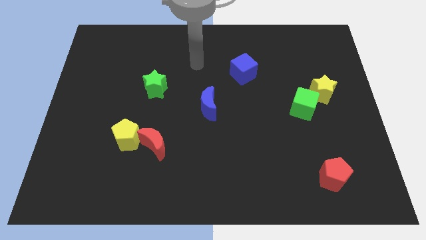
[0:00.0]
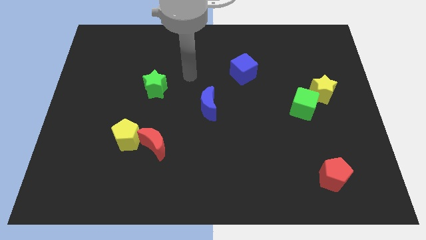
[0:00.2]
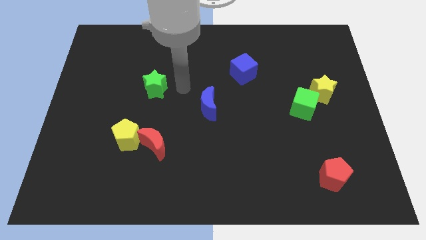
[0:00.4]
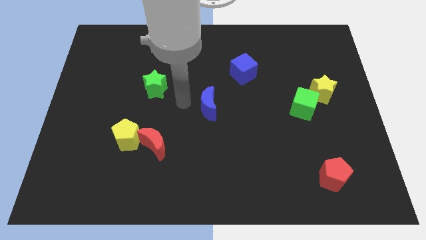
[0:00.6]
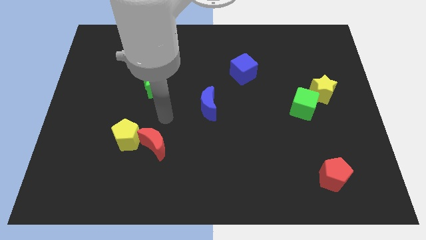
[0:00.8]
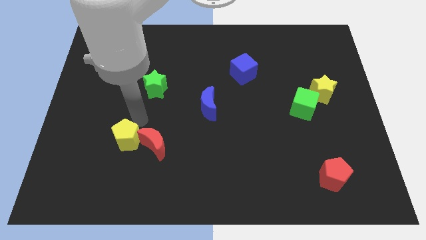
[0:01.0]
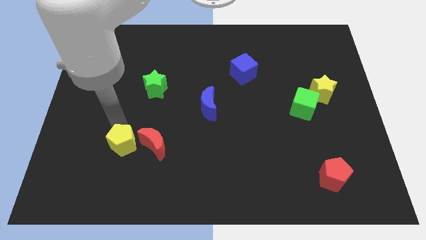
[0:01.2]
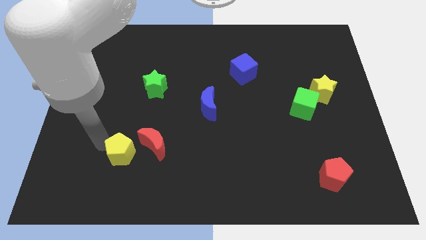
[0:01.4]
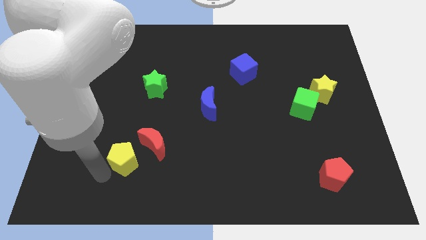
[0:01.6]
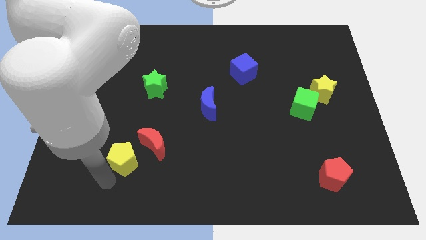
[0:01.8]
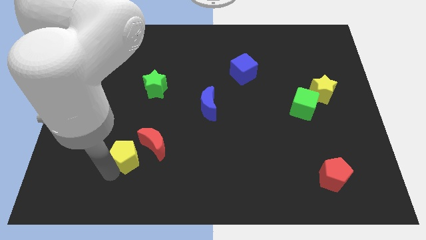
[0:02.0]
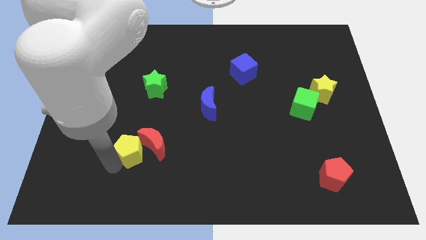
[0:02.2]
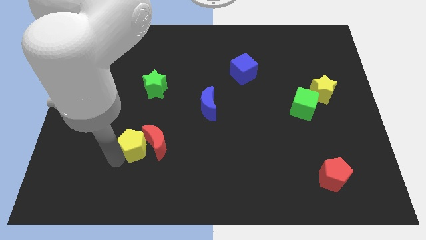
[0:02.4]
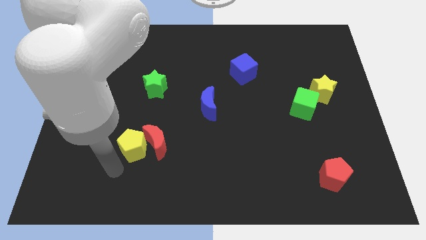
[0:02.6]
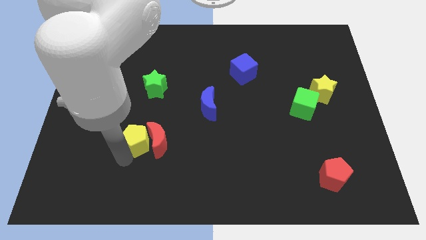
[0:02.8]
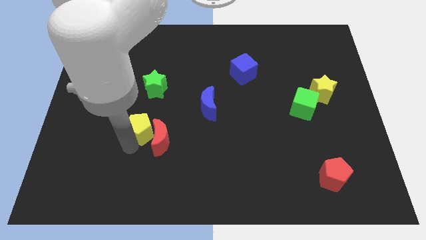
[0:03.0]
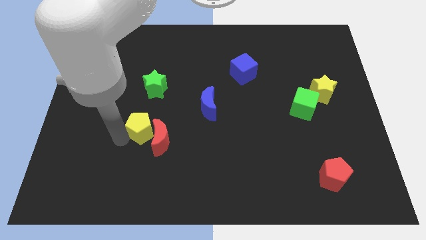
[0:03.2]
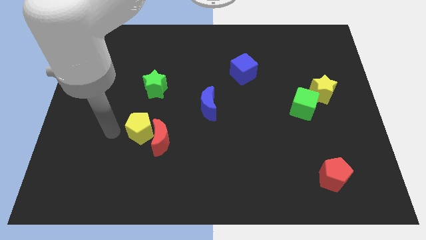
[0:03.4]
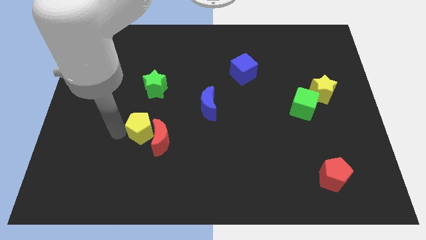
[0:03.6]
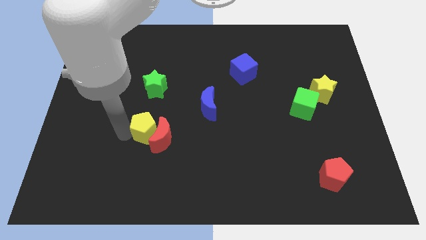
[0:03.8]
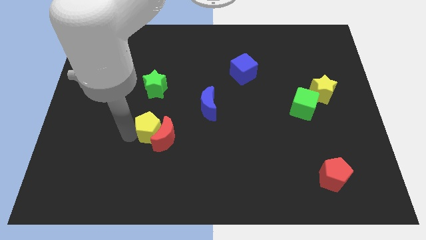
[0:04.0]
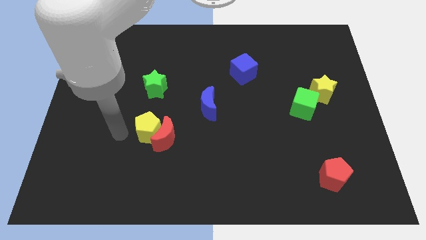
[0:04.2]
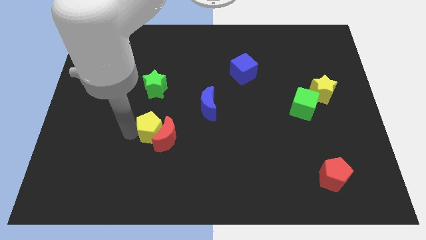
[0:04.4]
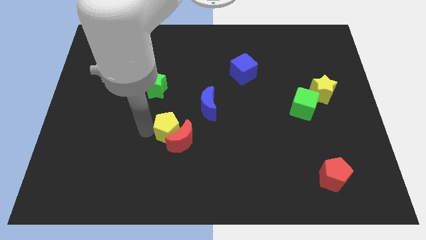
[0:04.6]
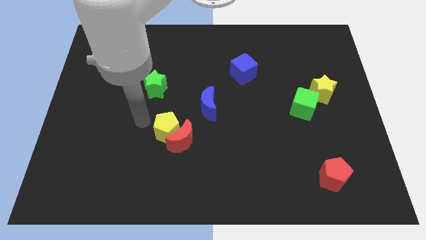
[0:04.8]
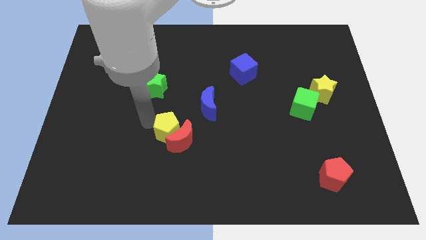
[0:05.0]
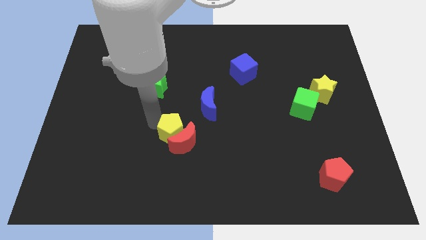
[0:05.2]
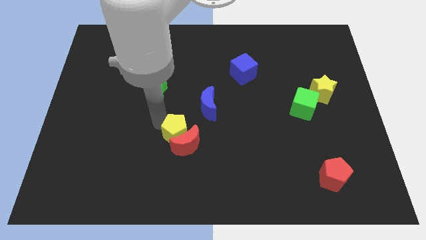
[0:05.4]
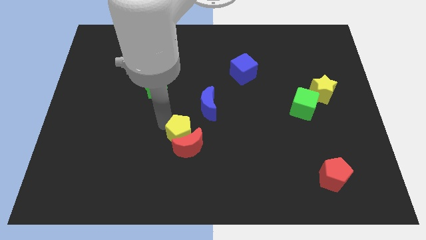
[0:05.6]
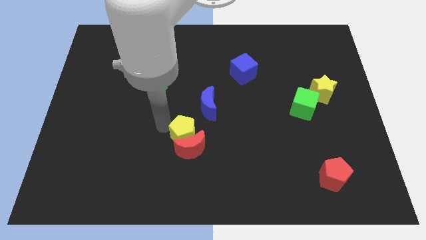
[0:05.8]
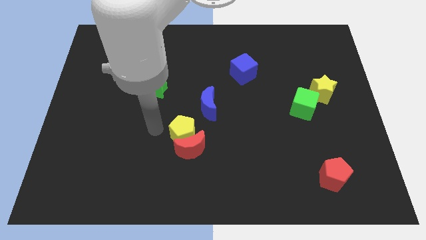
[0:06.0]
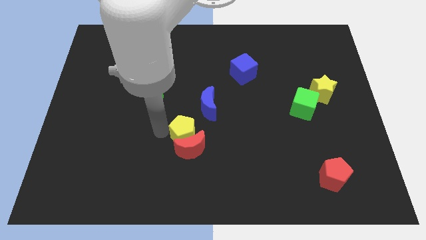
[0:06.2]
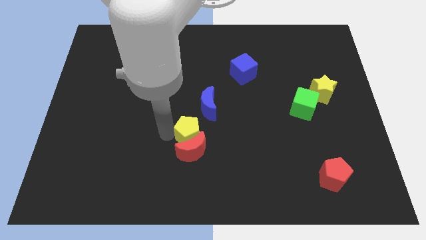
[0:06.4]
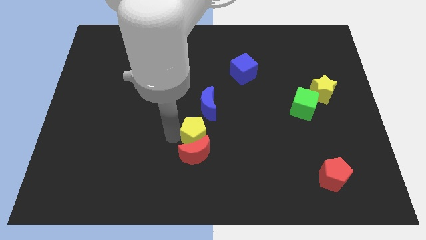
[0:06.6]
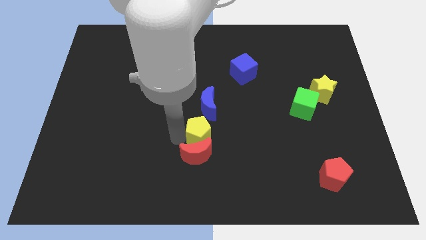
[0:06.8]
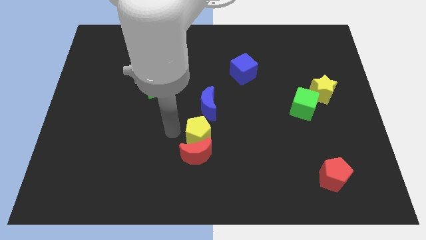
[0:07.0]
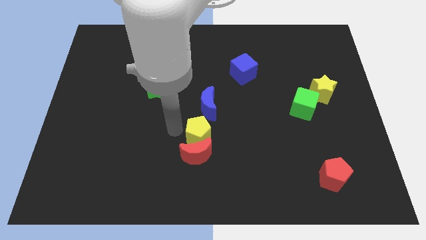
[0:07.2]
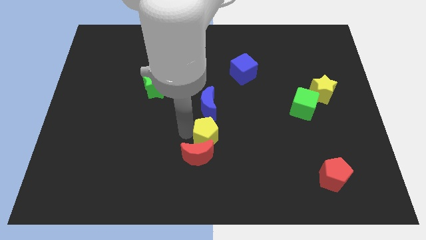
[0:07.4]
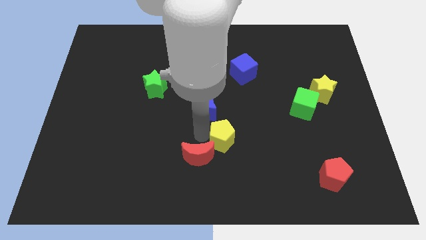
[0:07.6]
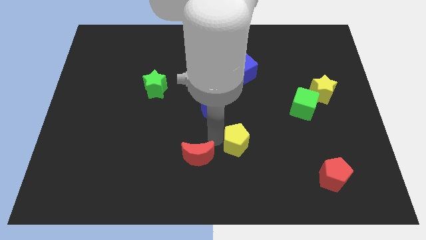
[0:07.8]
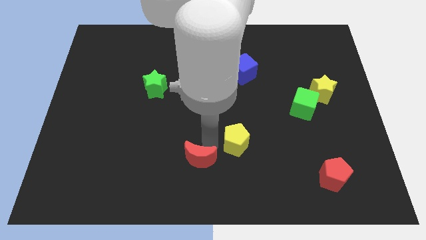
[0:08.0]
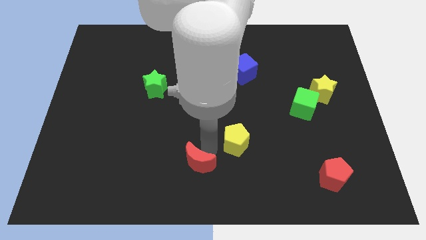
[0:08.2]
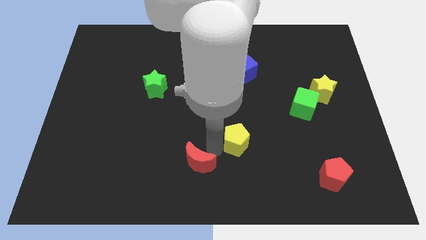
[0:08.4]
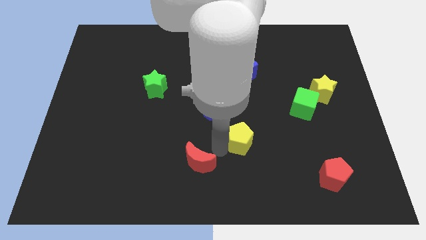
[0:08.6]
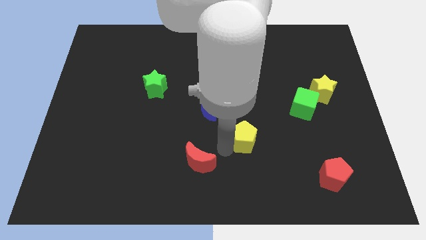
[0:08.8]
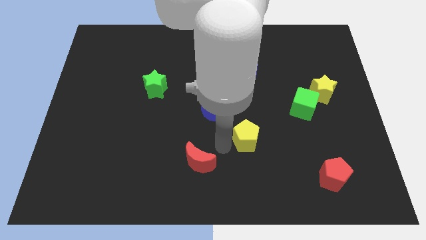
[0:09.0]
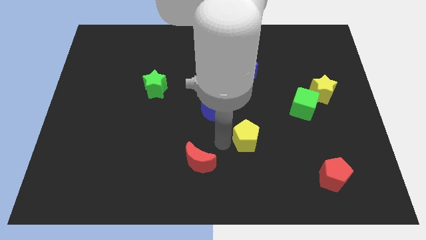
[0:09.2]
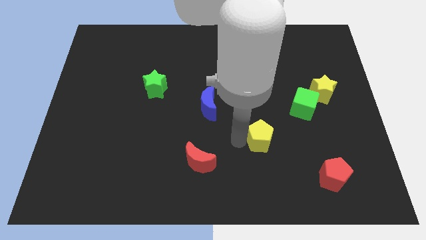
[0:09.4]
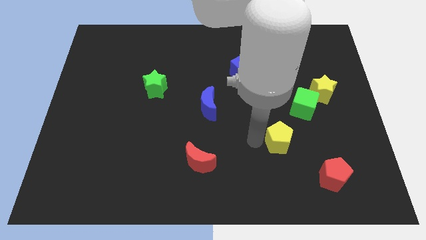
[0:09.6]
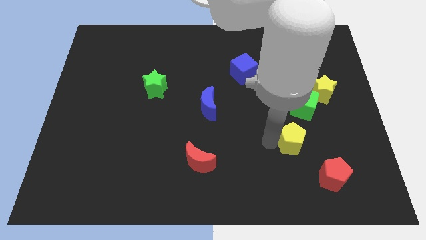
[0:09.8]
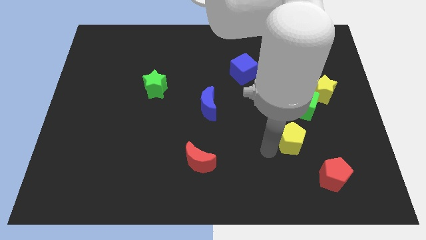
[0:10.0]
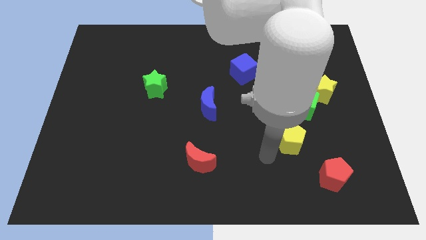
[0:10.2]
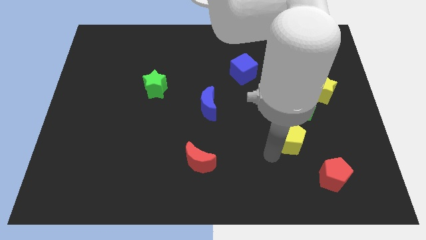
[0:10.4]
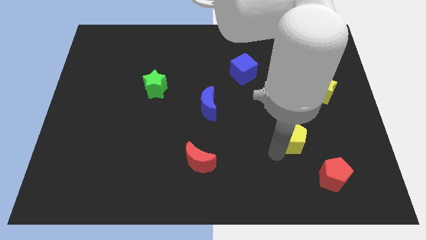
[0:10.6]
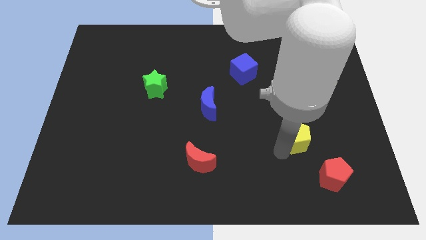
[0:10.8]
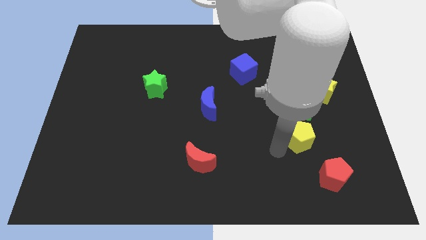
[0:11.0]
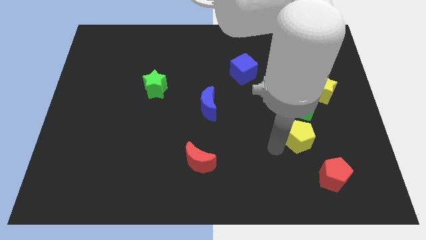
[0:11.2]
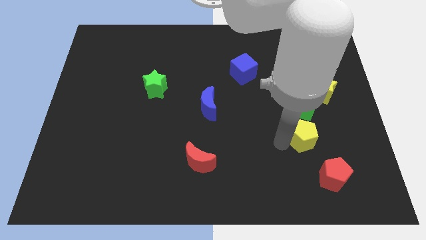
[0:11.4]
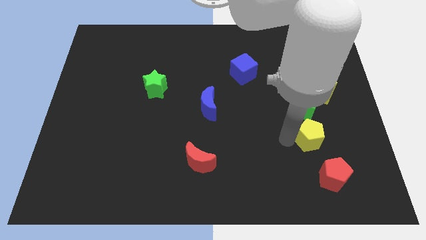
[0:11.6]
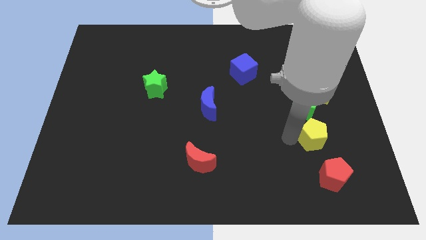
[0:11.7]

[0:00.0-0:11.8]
push the yellow pentagon below the yellow star

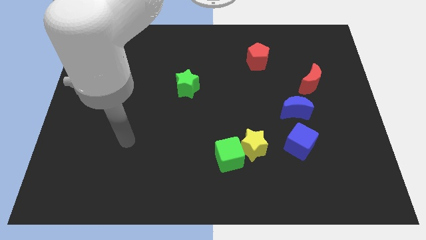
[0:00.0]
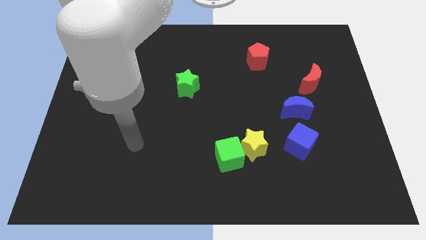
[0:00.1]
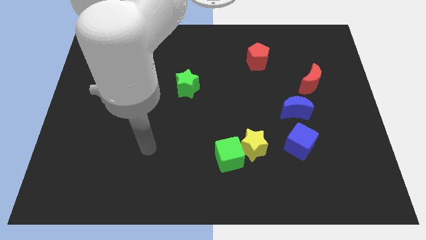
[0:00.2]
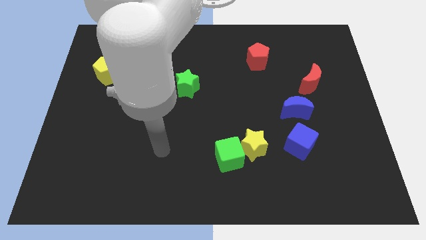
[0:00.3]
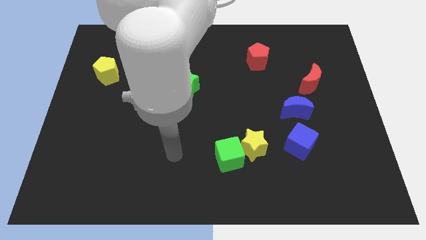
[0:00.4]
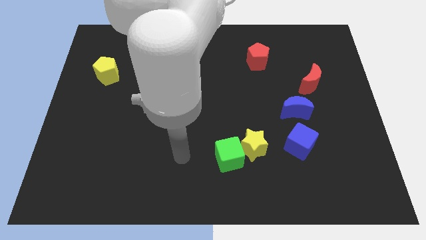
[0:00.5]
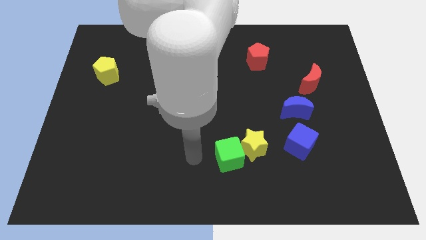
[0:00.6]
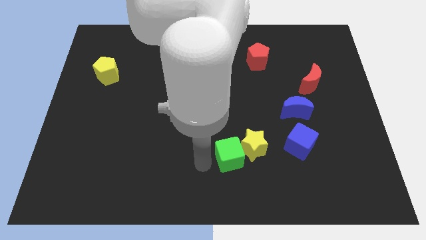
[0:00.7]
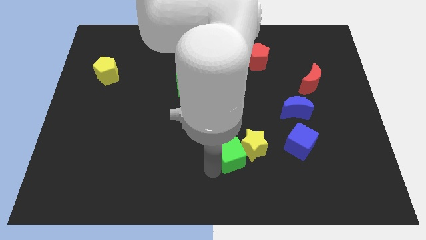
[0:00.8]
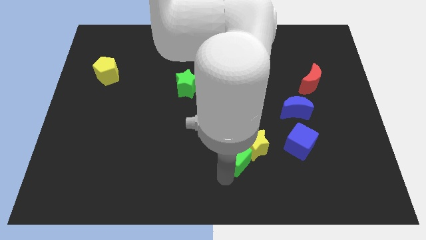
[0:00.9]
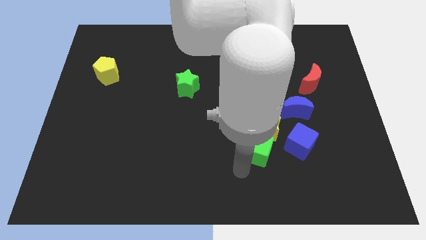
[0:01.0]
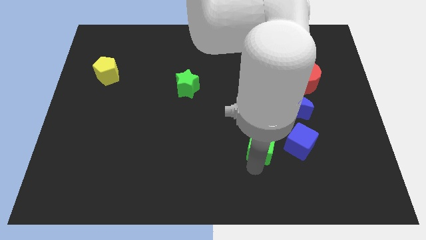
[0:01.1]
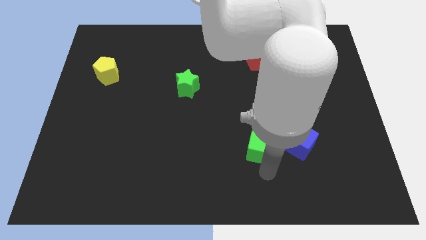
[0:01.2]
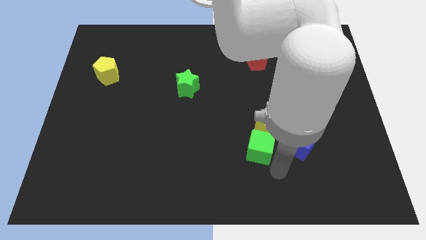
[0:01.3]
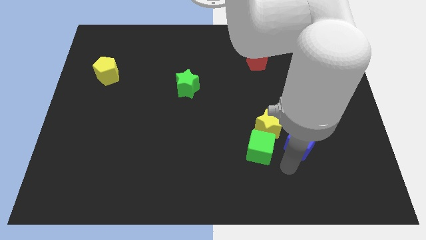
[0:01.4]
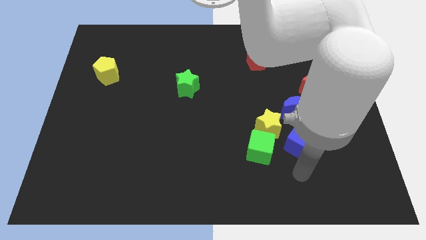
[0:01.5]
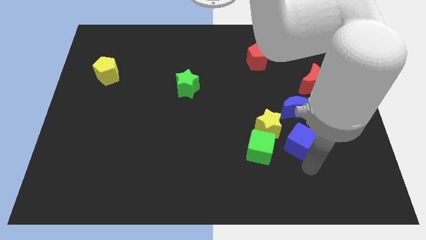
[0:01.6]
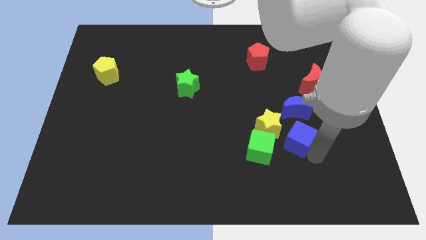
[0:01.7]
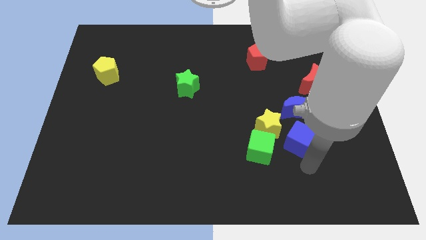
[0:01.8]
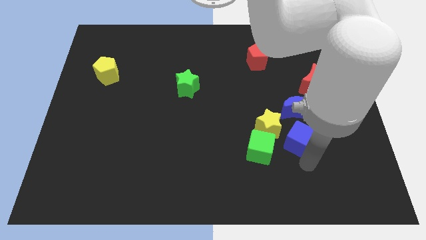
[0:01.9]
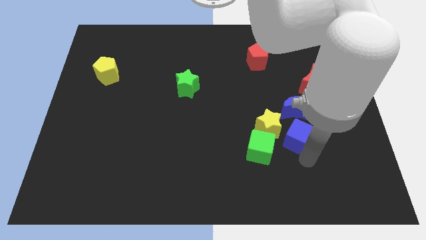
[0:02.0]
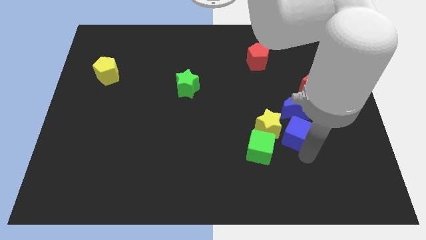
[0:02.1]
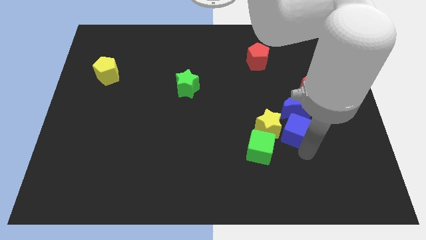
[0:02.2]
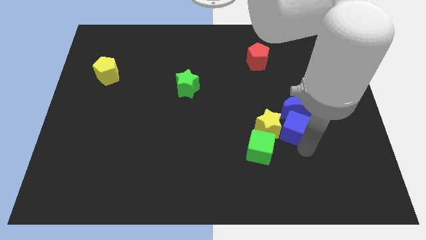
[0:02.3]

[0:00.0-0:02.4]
move the blue cube to the top right of the yellow star
